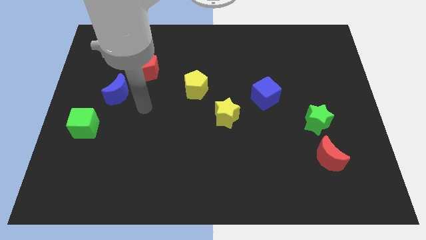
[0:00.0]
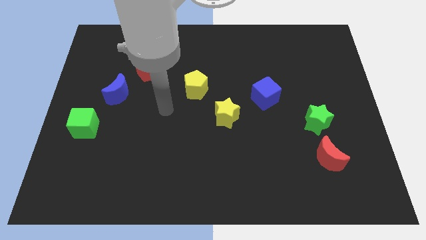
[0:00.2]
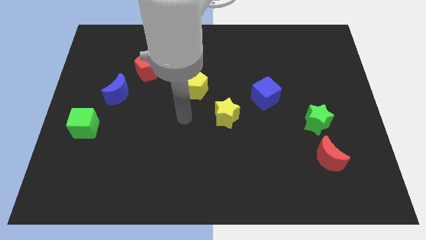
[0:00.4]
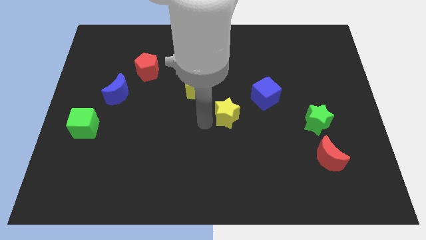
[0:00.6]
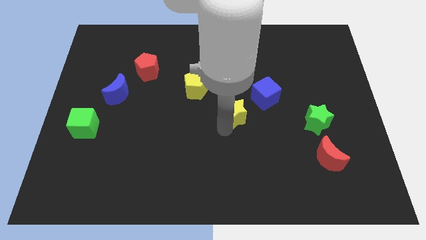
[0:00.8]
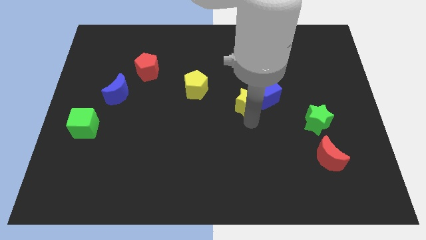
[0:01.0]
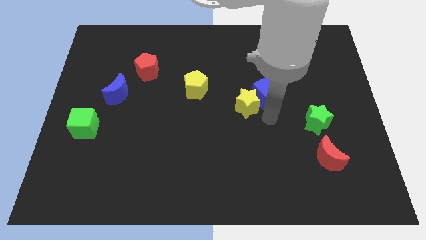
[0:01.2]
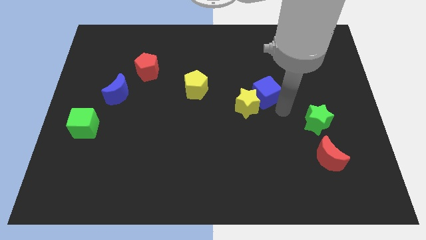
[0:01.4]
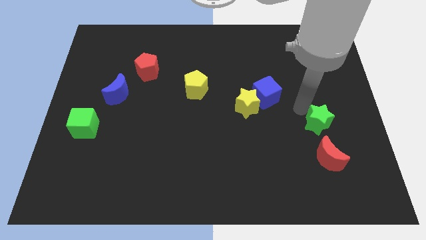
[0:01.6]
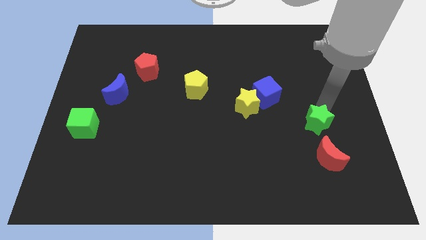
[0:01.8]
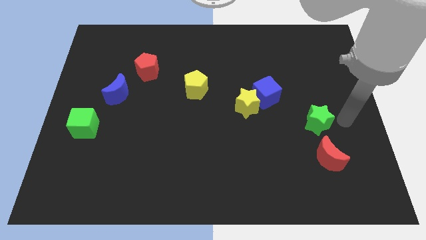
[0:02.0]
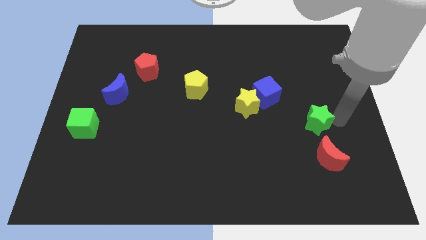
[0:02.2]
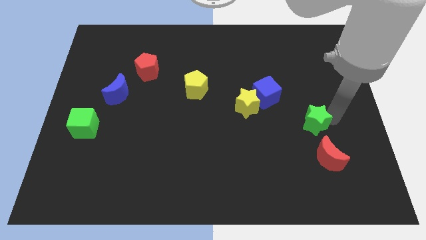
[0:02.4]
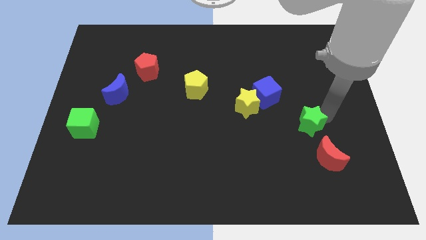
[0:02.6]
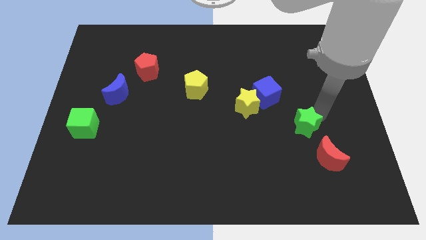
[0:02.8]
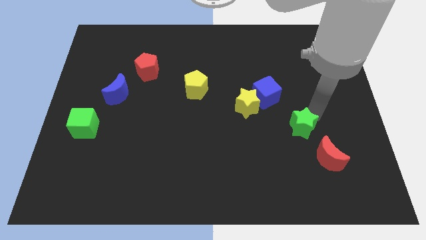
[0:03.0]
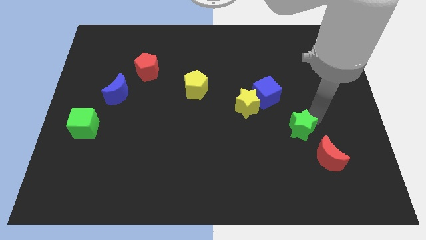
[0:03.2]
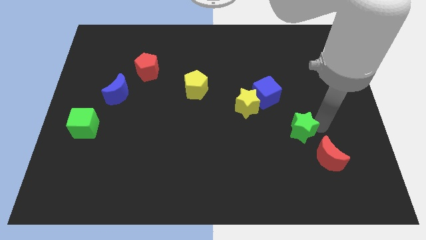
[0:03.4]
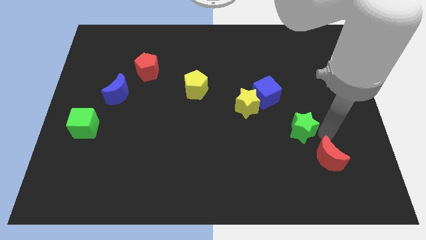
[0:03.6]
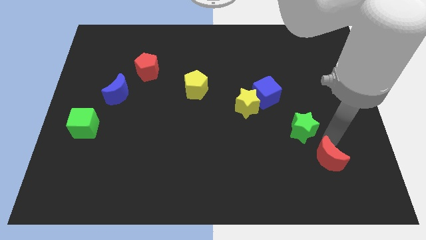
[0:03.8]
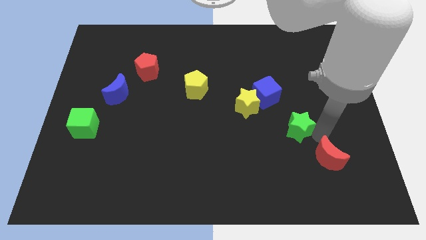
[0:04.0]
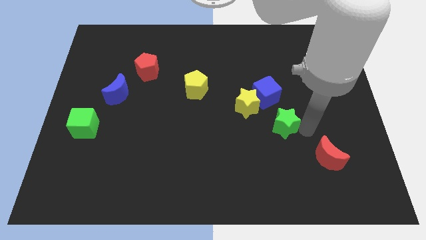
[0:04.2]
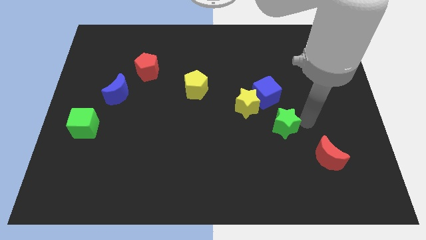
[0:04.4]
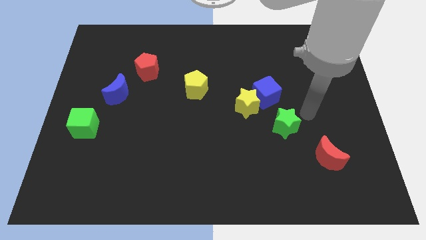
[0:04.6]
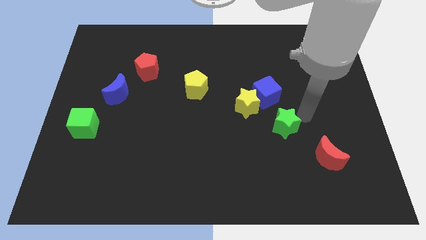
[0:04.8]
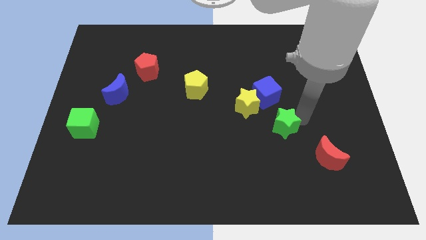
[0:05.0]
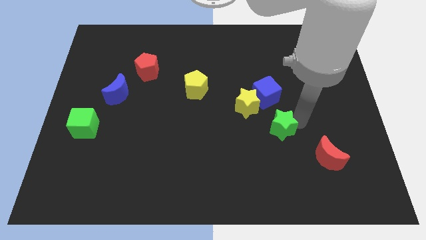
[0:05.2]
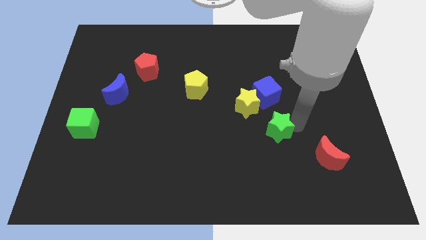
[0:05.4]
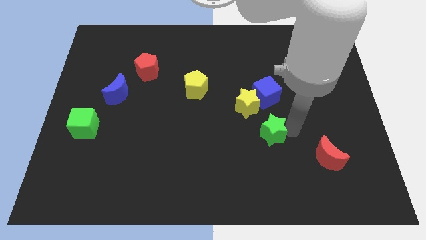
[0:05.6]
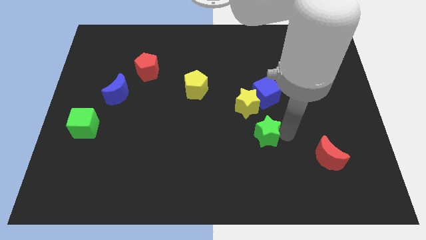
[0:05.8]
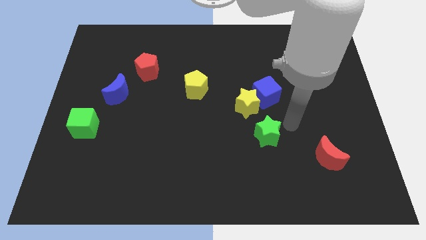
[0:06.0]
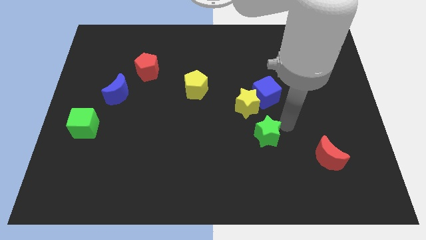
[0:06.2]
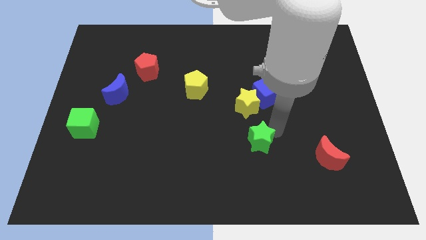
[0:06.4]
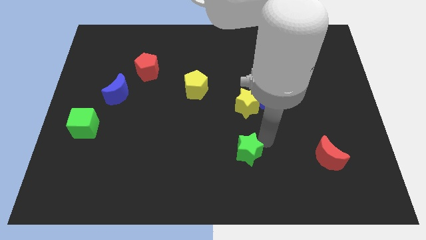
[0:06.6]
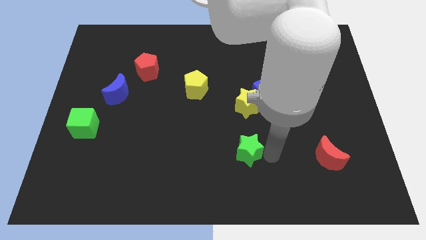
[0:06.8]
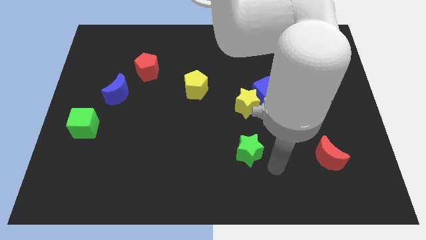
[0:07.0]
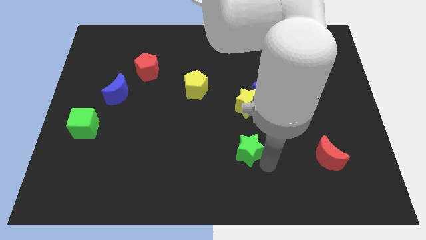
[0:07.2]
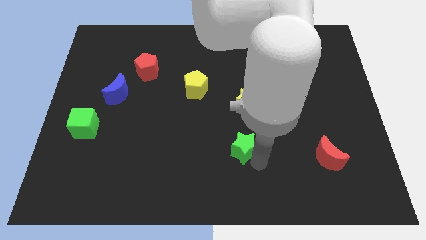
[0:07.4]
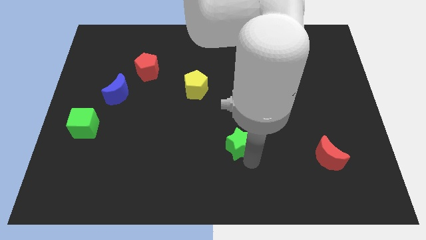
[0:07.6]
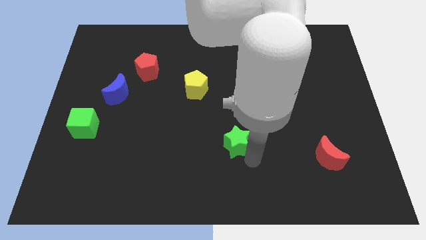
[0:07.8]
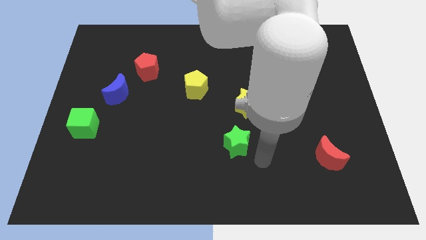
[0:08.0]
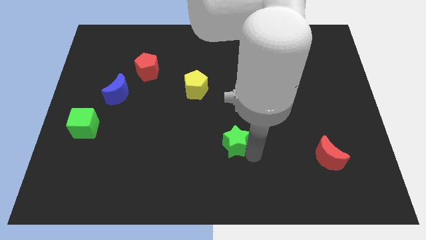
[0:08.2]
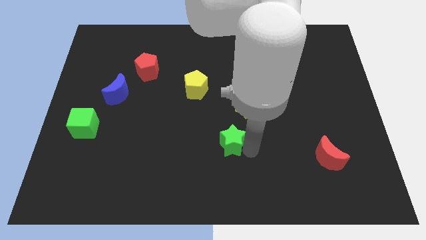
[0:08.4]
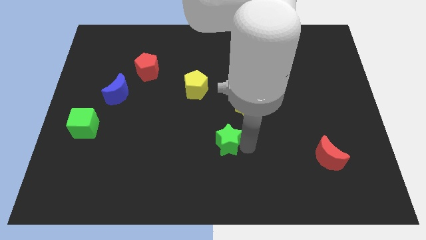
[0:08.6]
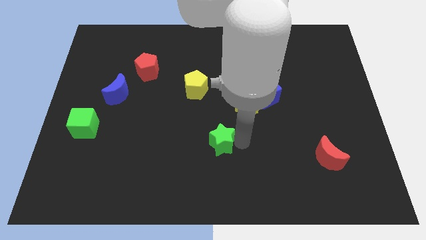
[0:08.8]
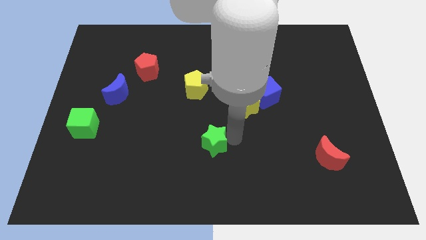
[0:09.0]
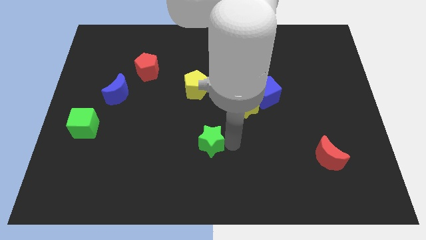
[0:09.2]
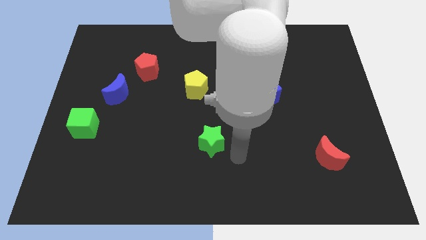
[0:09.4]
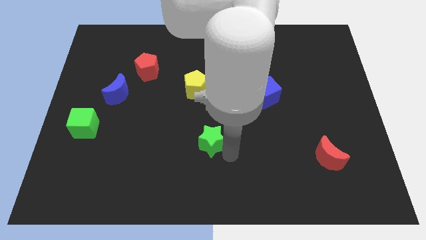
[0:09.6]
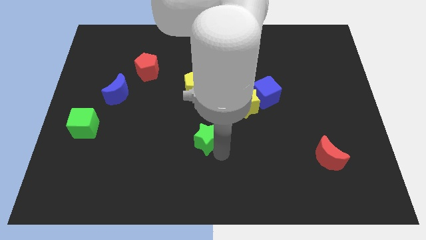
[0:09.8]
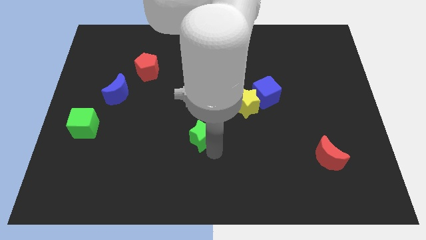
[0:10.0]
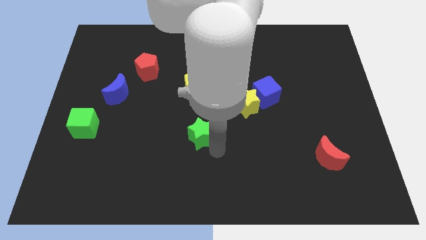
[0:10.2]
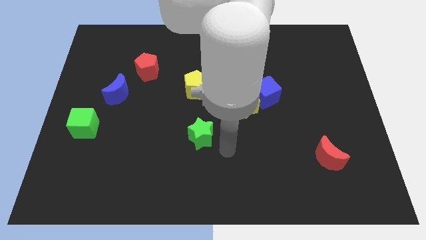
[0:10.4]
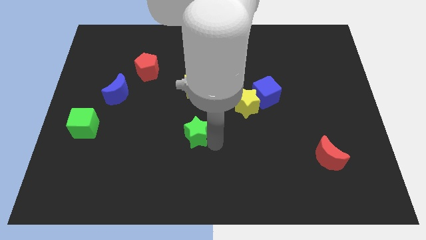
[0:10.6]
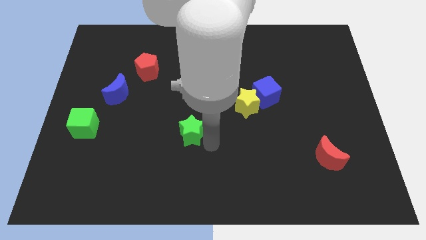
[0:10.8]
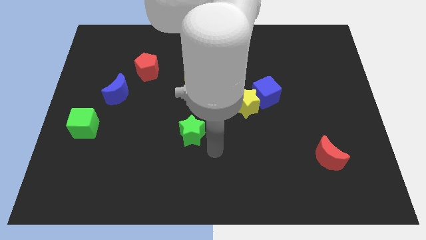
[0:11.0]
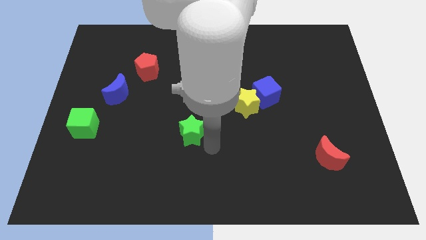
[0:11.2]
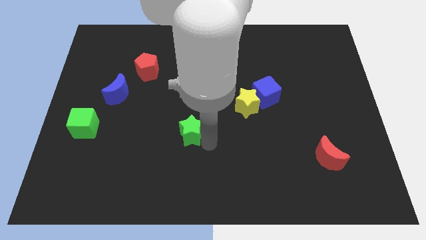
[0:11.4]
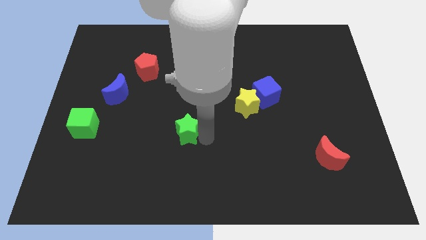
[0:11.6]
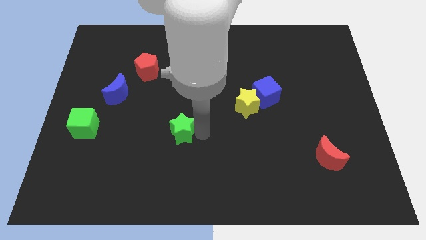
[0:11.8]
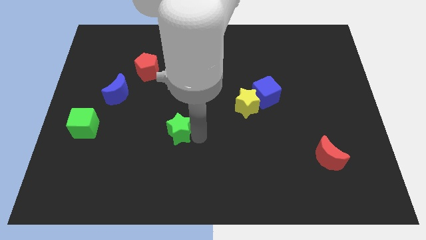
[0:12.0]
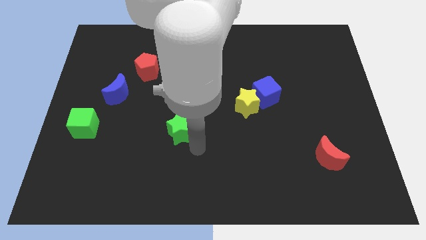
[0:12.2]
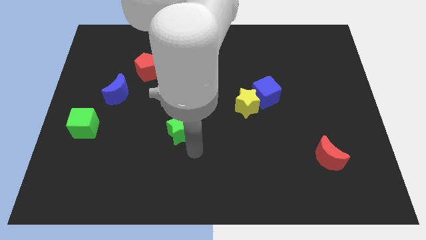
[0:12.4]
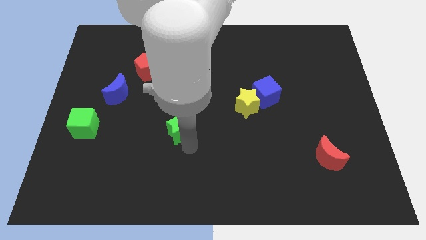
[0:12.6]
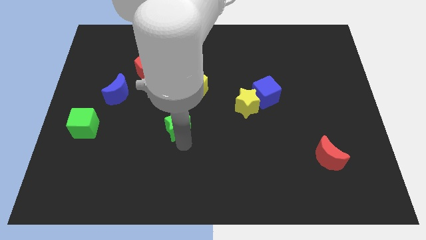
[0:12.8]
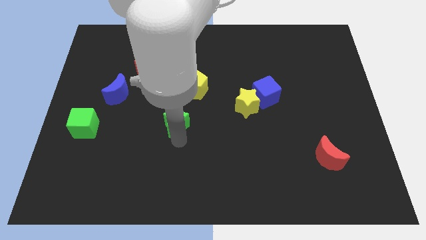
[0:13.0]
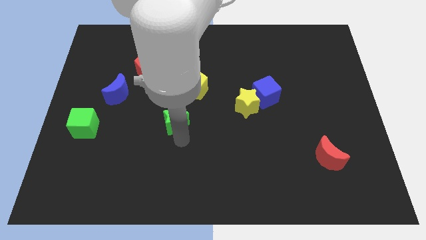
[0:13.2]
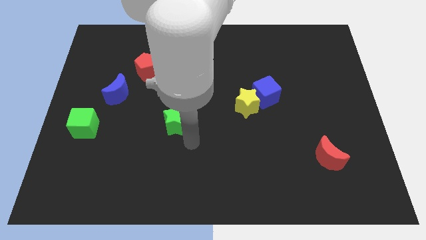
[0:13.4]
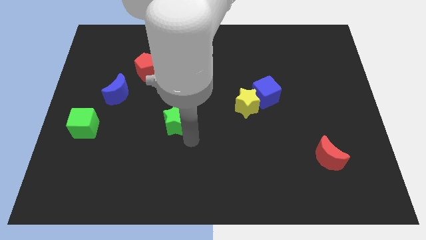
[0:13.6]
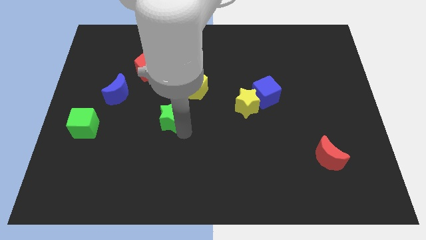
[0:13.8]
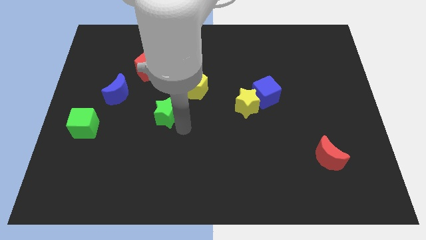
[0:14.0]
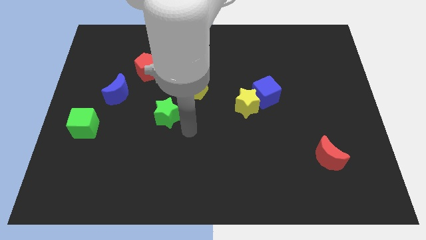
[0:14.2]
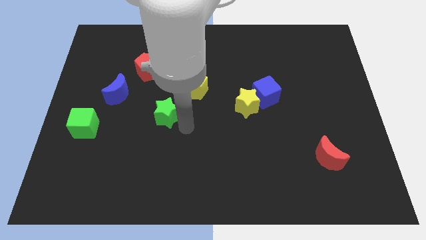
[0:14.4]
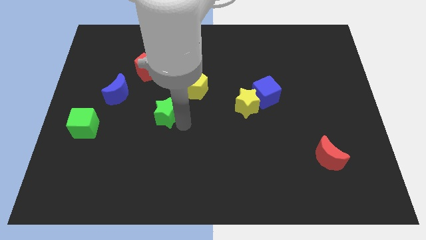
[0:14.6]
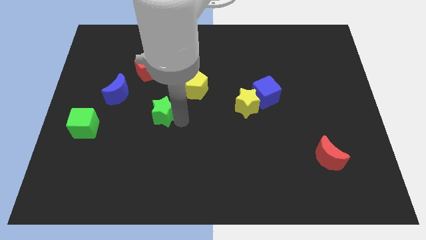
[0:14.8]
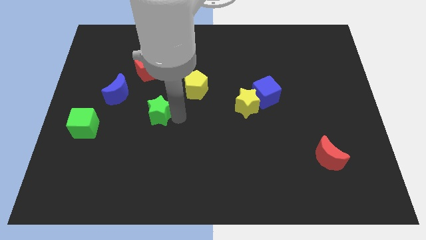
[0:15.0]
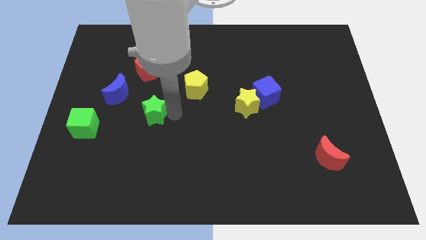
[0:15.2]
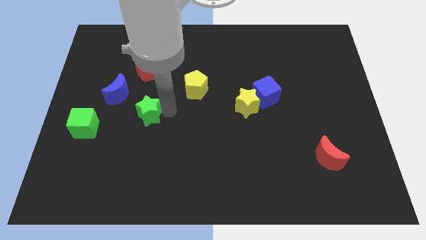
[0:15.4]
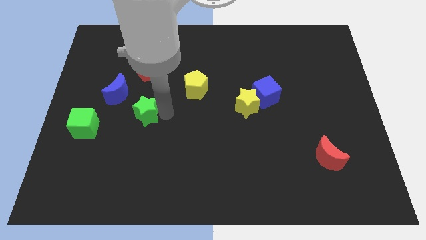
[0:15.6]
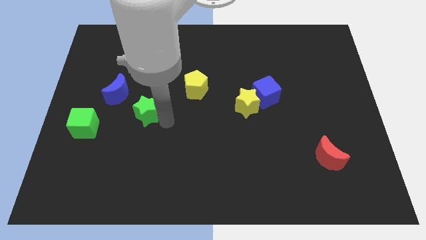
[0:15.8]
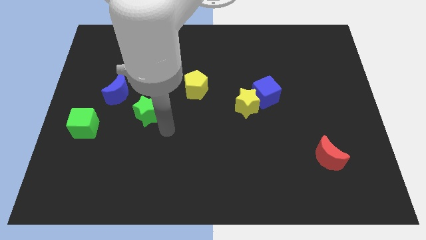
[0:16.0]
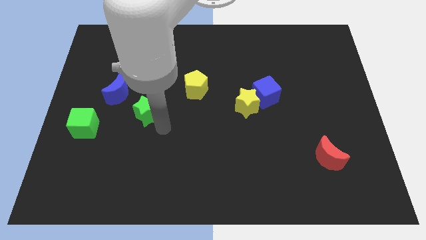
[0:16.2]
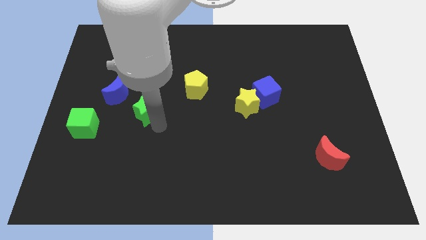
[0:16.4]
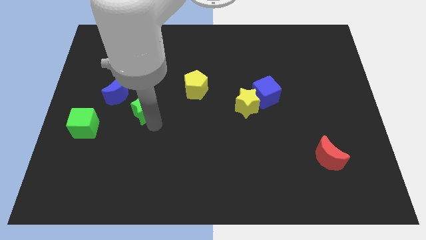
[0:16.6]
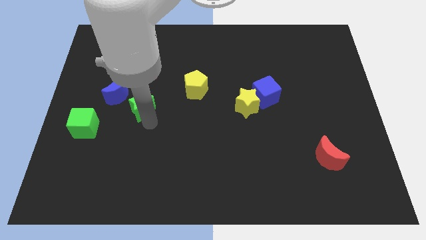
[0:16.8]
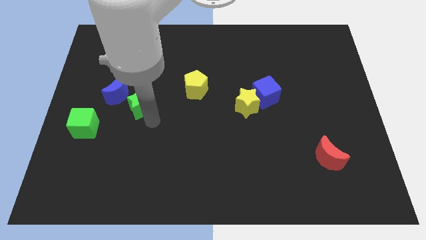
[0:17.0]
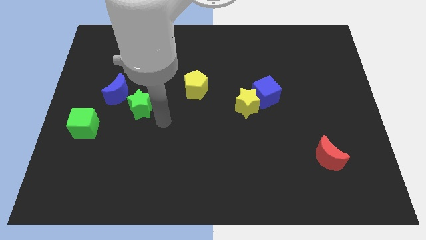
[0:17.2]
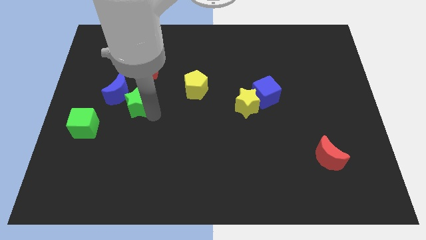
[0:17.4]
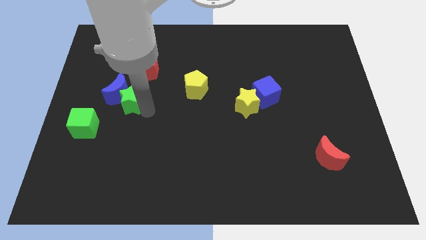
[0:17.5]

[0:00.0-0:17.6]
slide the green star to the blue moon
